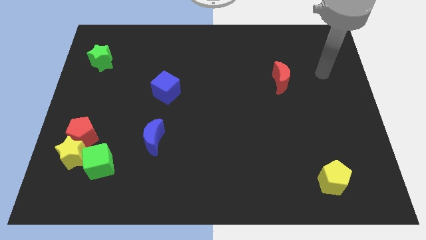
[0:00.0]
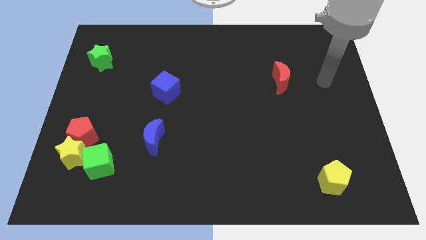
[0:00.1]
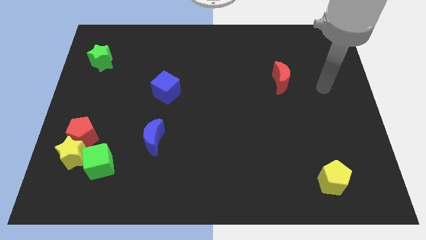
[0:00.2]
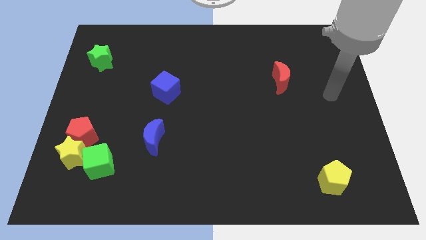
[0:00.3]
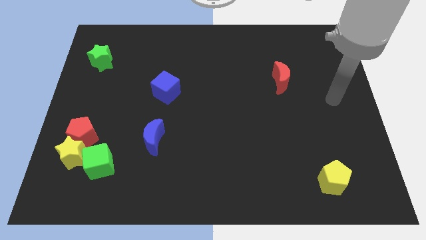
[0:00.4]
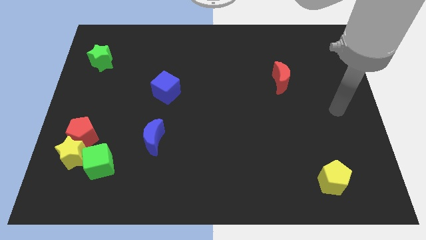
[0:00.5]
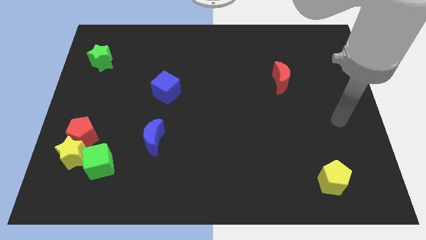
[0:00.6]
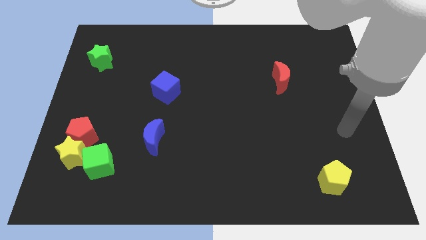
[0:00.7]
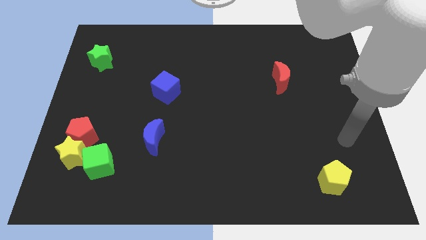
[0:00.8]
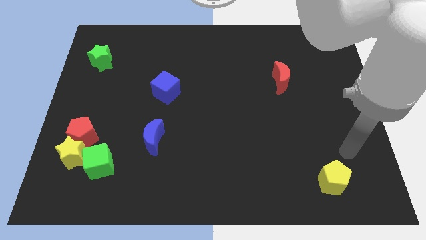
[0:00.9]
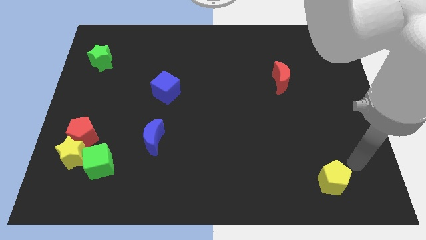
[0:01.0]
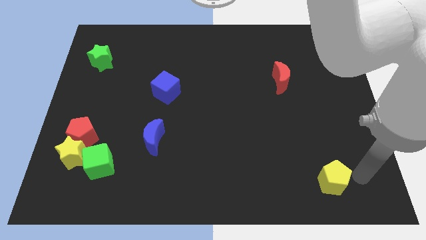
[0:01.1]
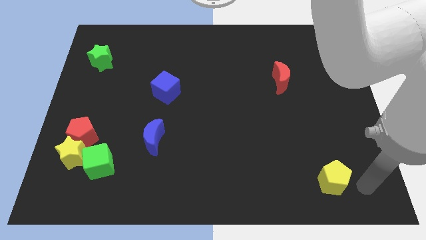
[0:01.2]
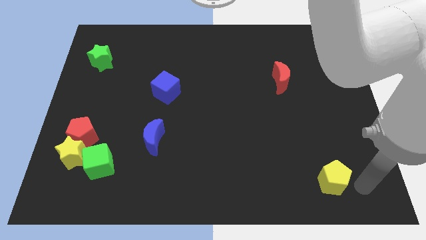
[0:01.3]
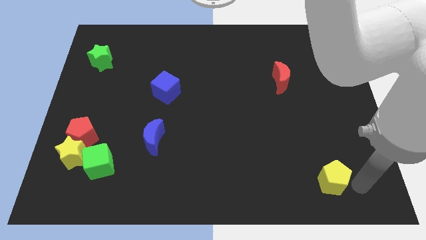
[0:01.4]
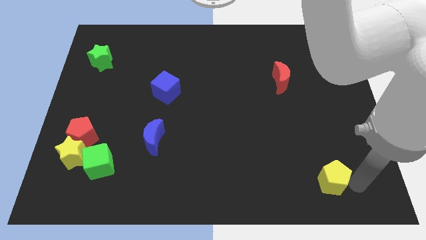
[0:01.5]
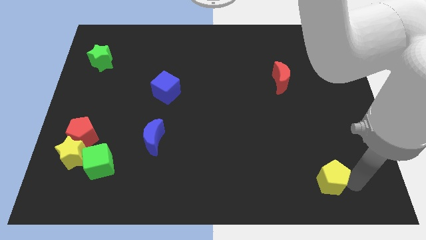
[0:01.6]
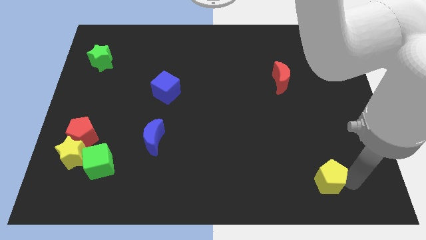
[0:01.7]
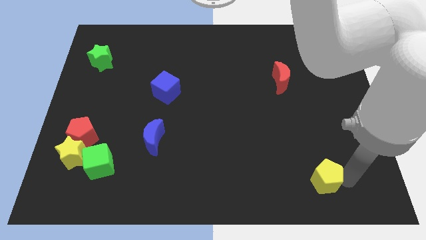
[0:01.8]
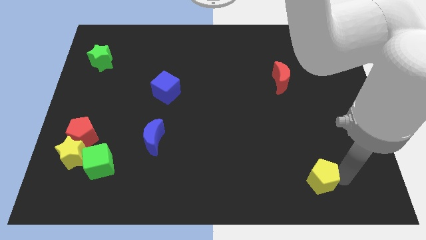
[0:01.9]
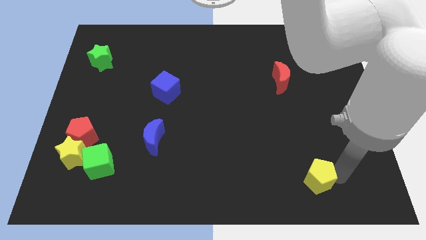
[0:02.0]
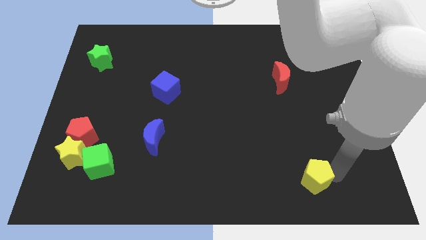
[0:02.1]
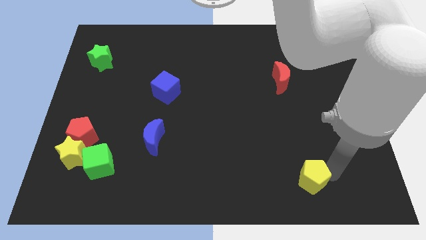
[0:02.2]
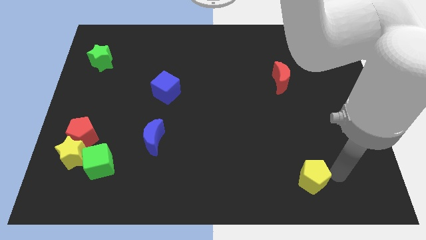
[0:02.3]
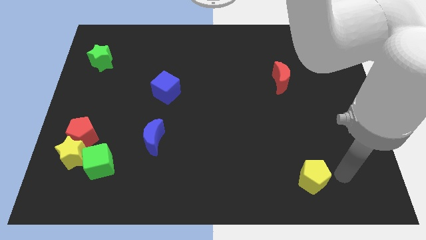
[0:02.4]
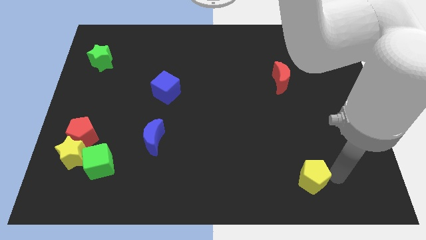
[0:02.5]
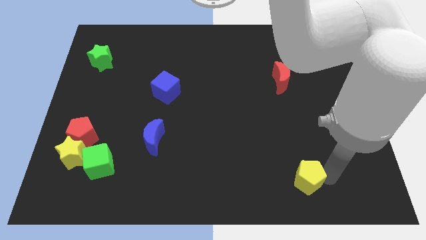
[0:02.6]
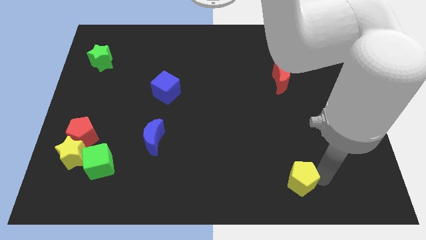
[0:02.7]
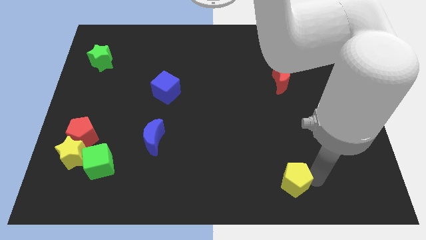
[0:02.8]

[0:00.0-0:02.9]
slide the yellow pentagon a bit left

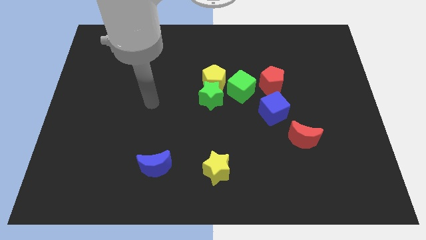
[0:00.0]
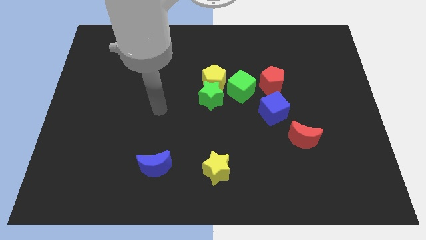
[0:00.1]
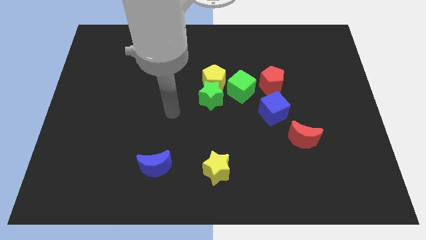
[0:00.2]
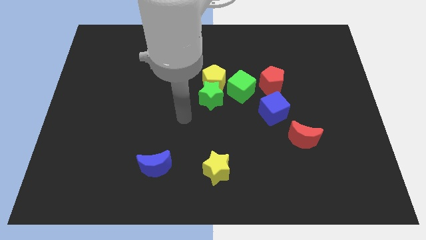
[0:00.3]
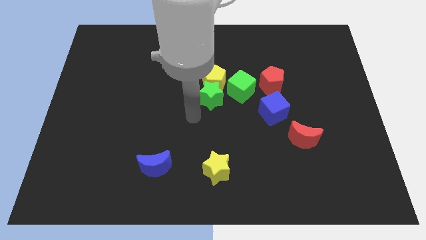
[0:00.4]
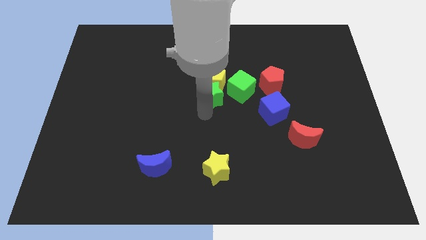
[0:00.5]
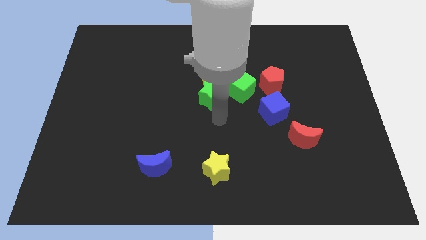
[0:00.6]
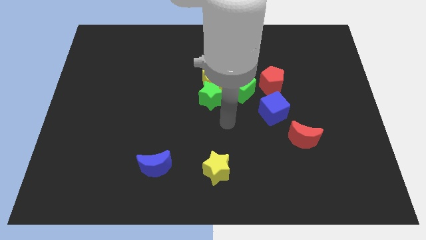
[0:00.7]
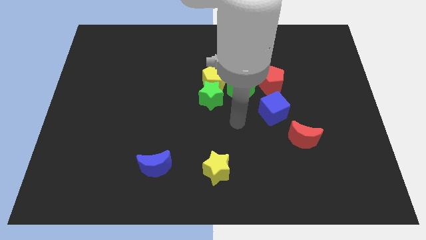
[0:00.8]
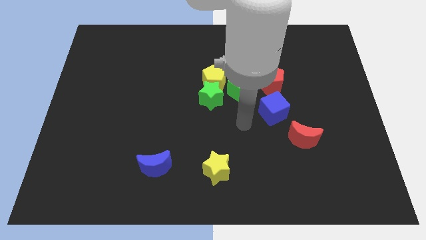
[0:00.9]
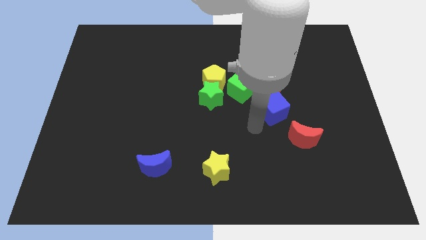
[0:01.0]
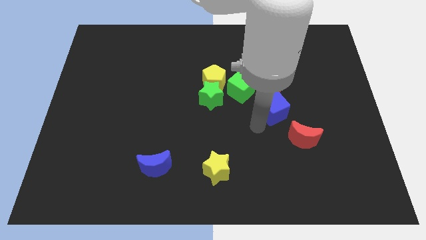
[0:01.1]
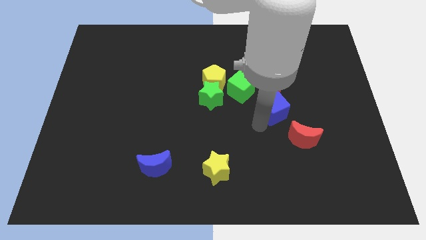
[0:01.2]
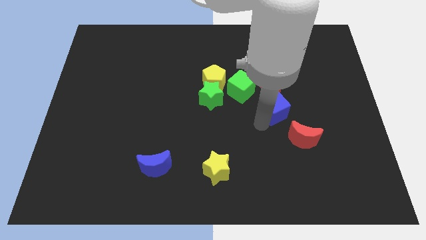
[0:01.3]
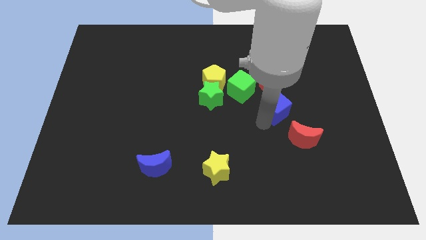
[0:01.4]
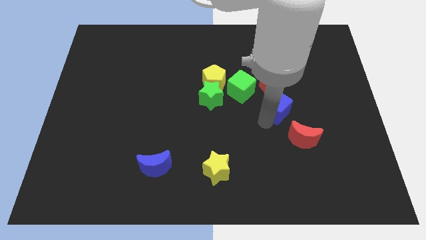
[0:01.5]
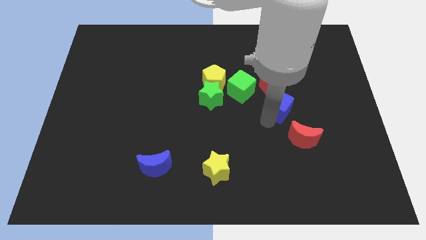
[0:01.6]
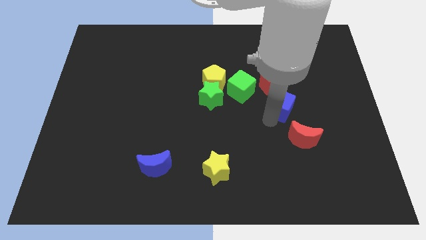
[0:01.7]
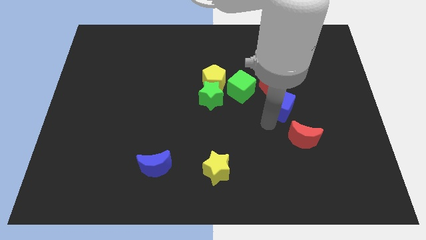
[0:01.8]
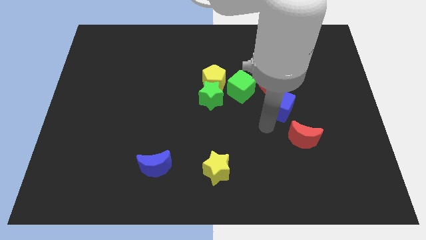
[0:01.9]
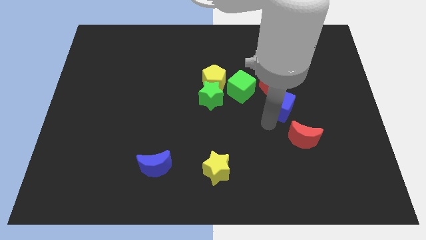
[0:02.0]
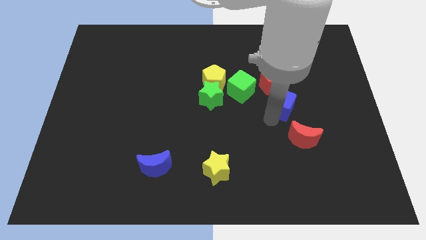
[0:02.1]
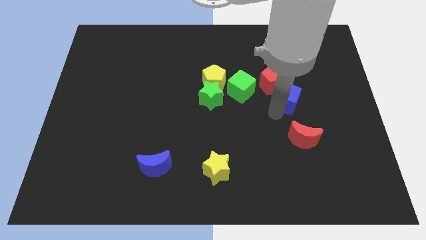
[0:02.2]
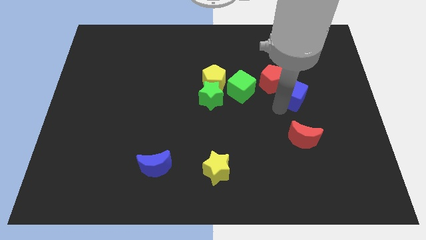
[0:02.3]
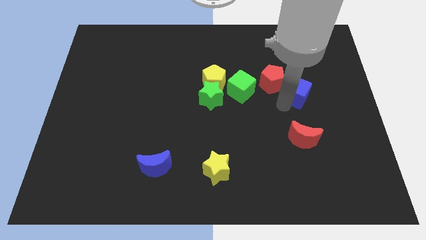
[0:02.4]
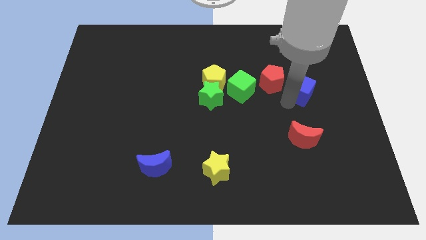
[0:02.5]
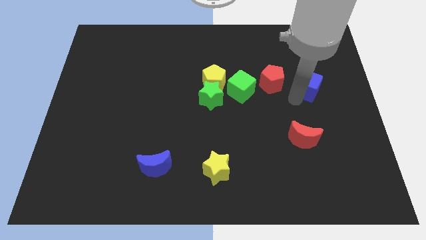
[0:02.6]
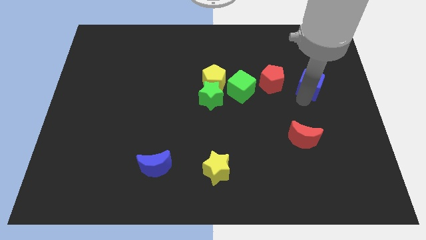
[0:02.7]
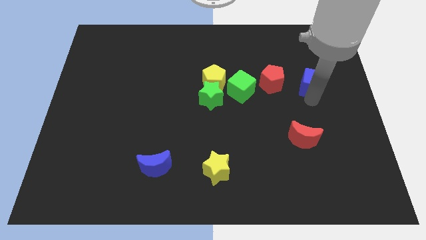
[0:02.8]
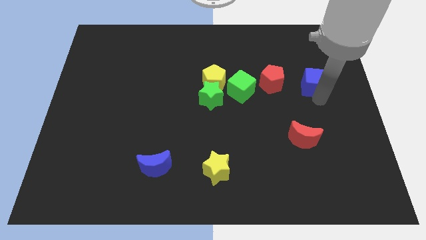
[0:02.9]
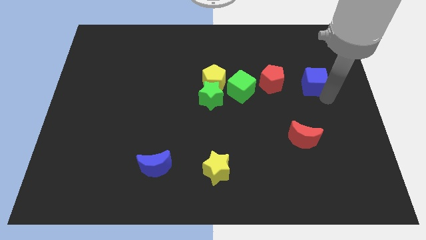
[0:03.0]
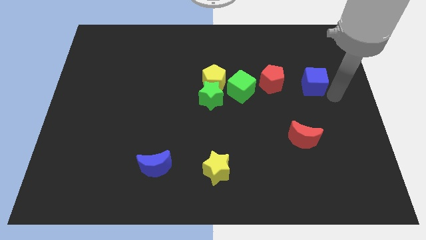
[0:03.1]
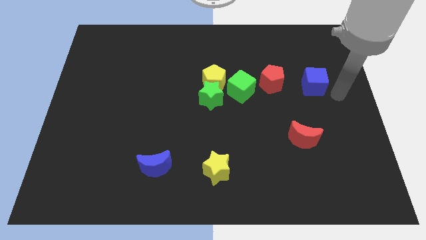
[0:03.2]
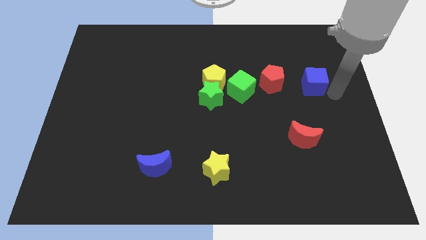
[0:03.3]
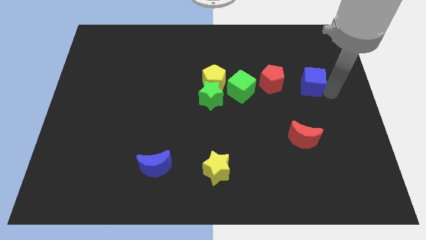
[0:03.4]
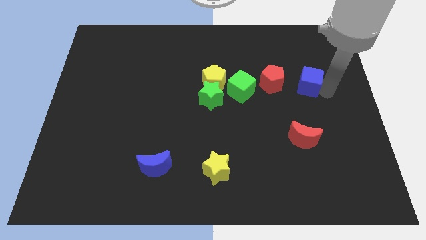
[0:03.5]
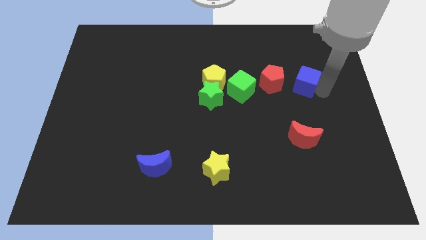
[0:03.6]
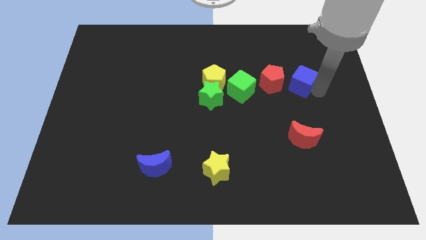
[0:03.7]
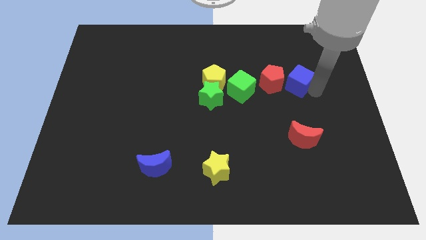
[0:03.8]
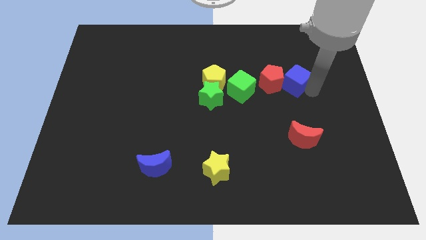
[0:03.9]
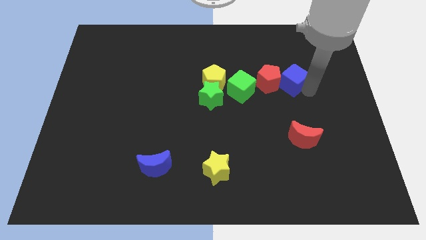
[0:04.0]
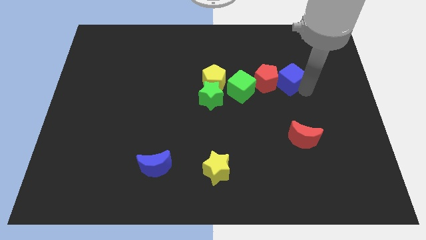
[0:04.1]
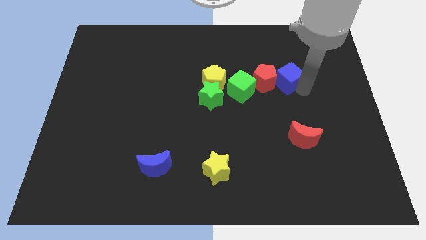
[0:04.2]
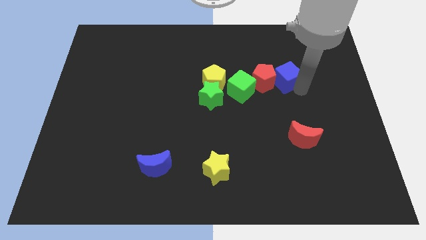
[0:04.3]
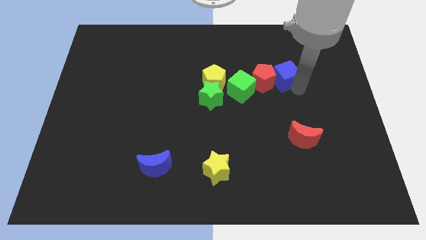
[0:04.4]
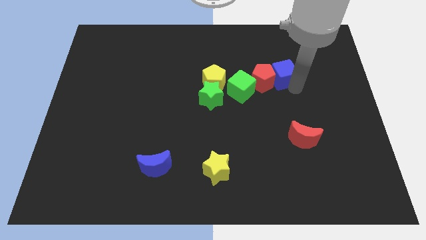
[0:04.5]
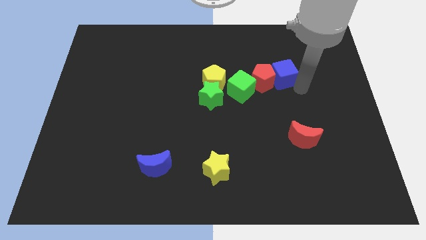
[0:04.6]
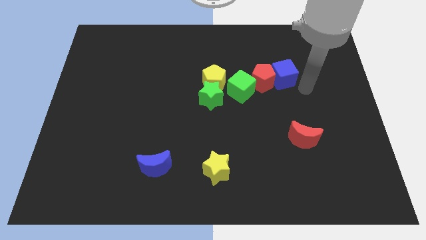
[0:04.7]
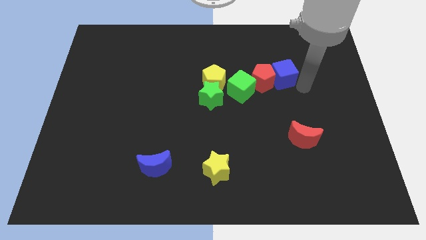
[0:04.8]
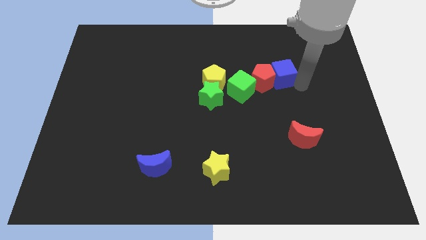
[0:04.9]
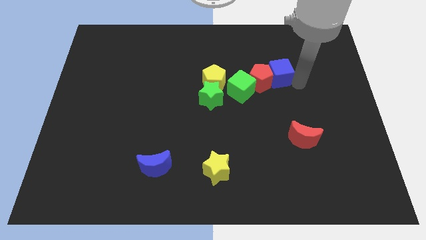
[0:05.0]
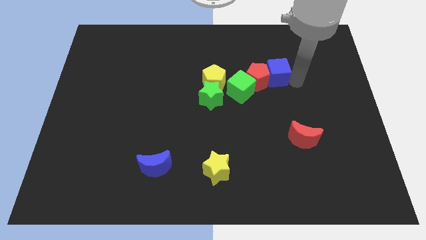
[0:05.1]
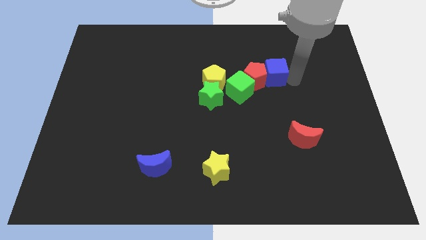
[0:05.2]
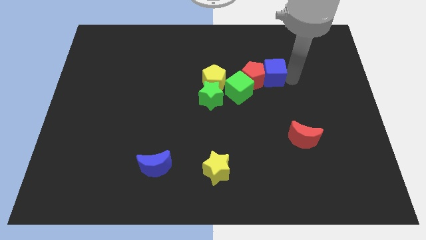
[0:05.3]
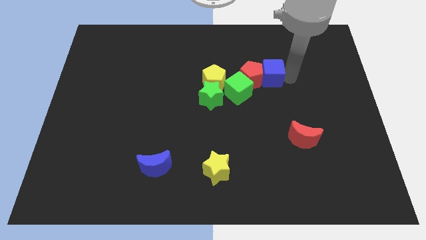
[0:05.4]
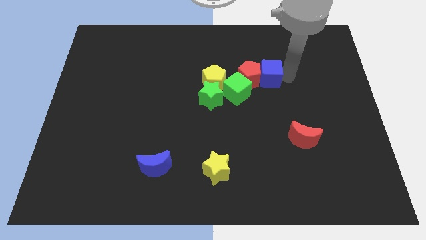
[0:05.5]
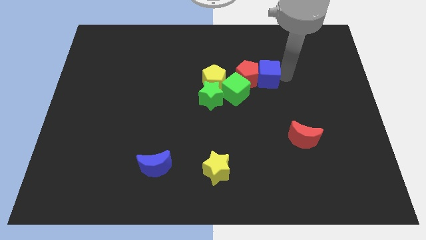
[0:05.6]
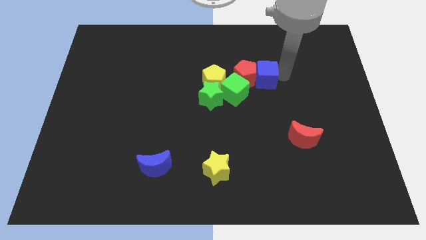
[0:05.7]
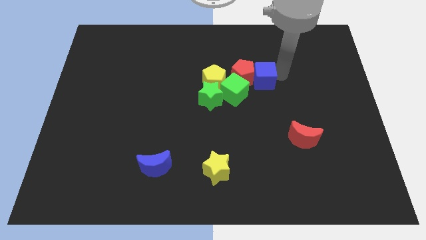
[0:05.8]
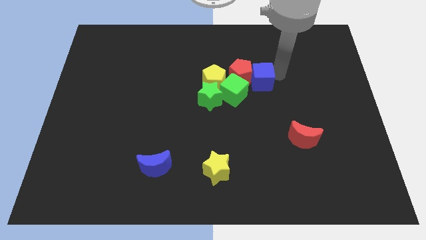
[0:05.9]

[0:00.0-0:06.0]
slightly slide the blue cube up and then to the left
